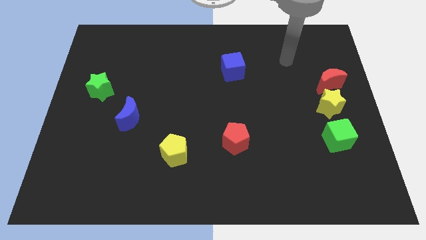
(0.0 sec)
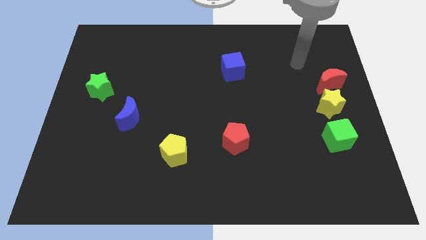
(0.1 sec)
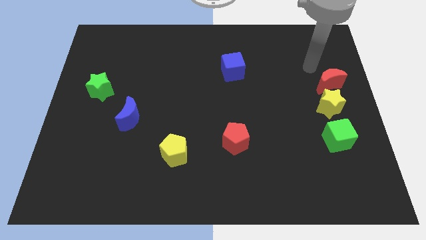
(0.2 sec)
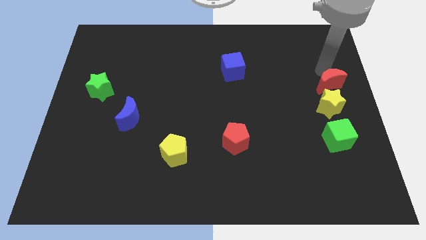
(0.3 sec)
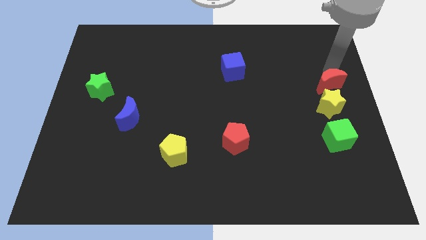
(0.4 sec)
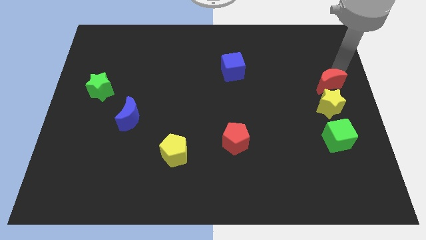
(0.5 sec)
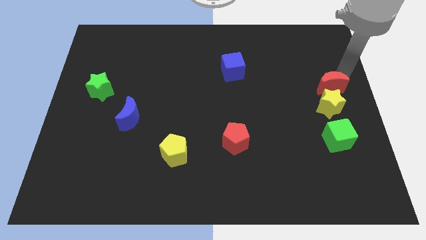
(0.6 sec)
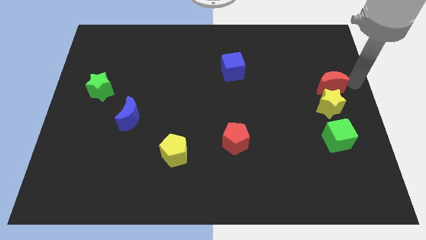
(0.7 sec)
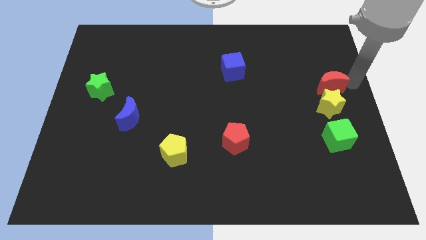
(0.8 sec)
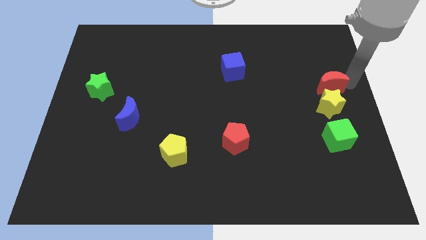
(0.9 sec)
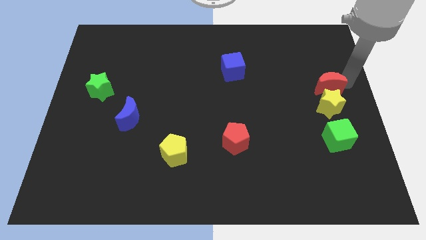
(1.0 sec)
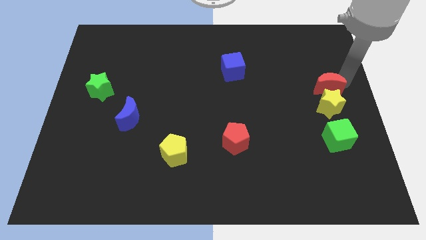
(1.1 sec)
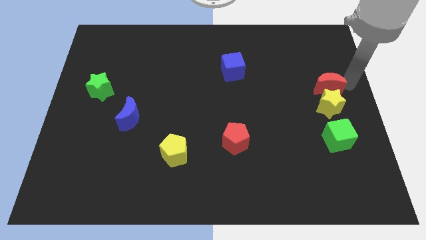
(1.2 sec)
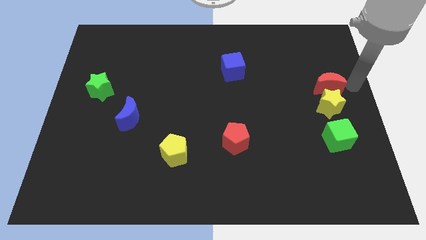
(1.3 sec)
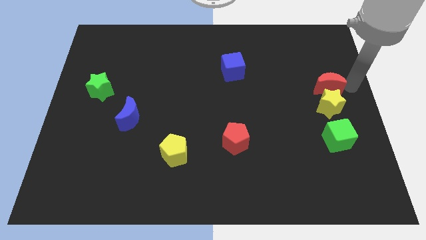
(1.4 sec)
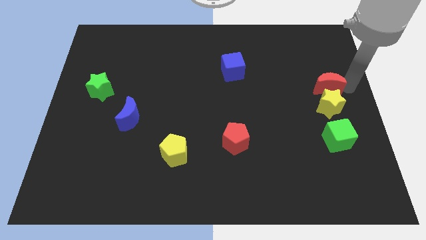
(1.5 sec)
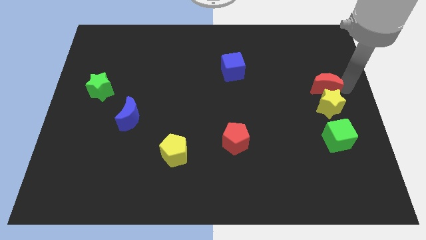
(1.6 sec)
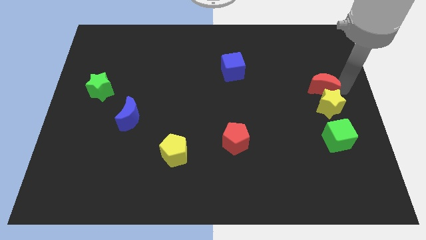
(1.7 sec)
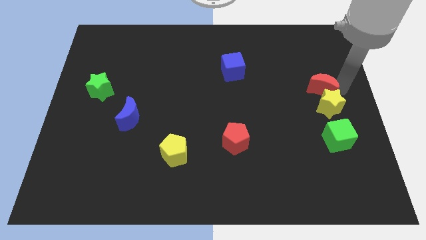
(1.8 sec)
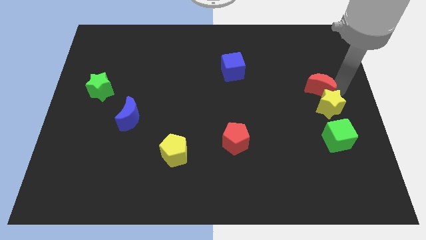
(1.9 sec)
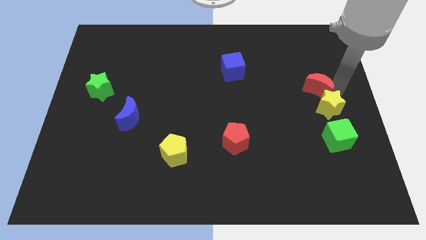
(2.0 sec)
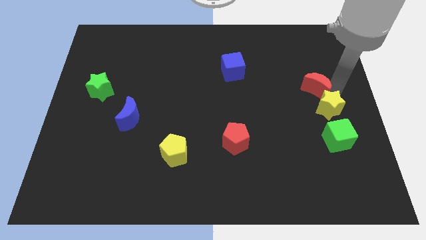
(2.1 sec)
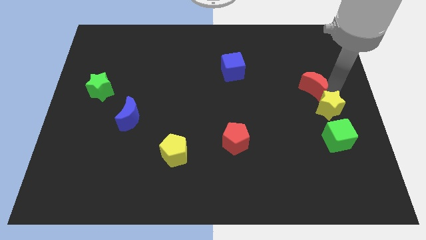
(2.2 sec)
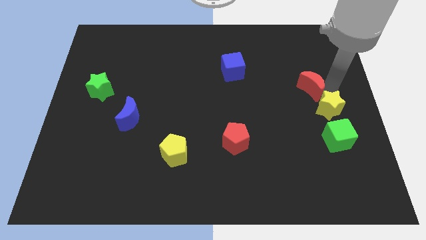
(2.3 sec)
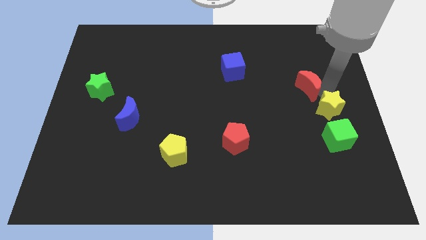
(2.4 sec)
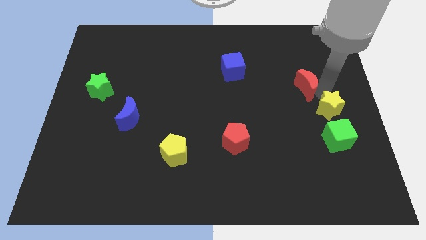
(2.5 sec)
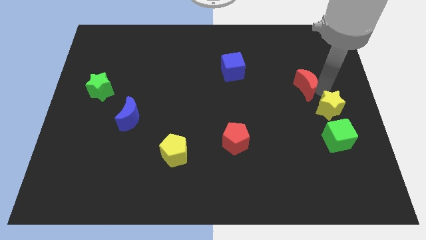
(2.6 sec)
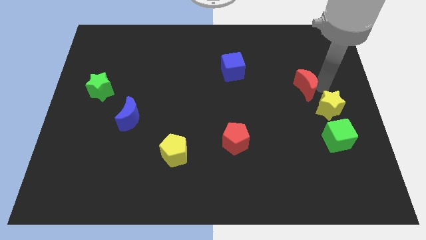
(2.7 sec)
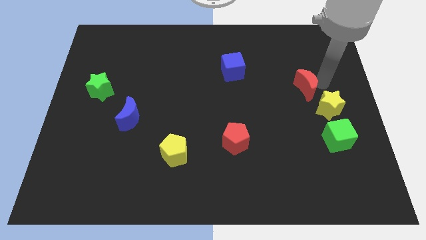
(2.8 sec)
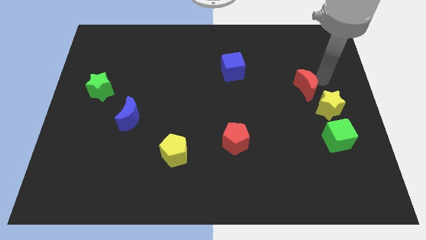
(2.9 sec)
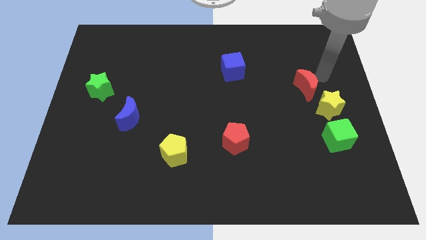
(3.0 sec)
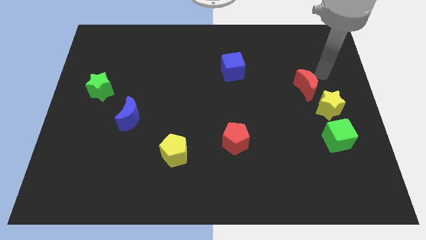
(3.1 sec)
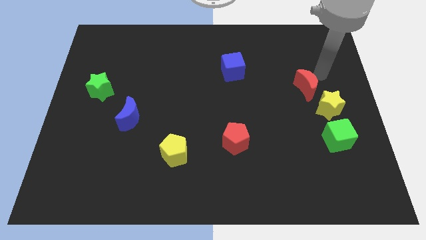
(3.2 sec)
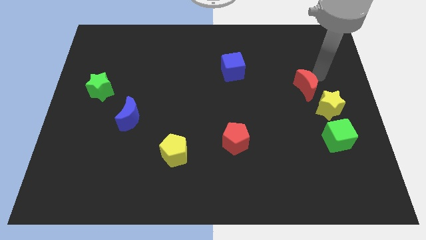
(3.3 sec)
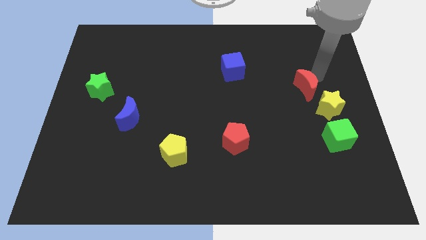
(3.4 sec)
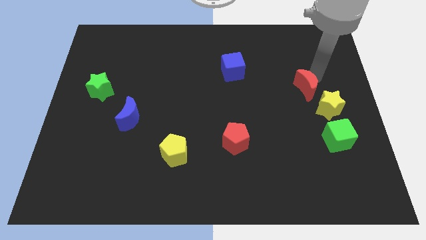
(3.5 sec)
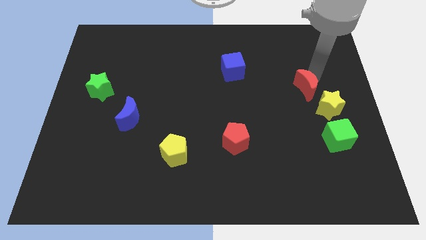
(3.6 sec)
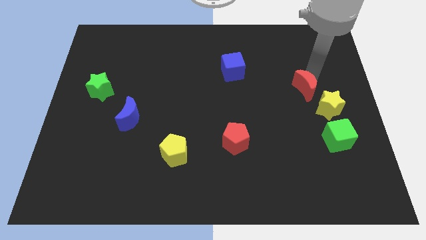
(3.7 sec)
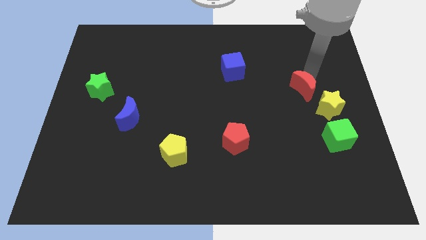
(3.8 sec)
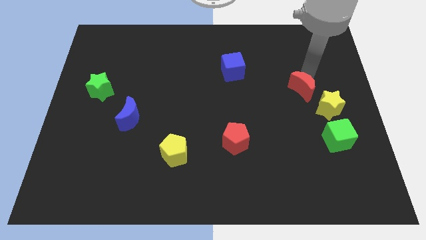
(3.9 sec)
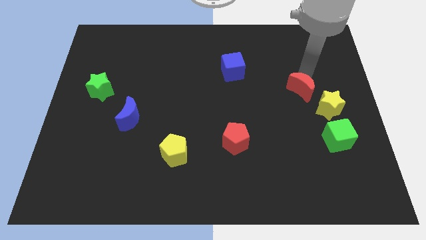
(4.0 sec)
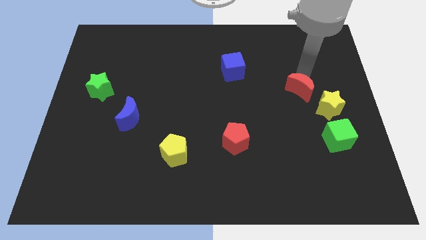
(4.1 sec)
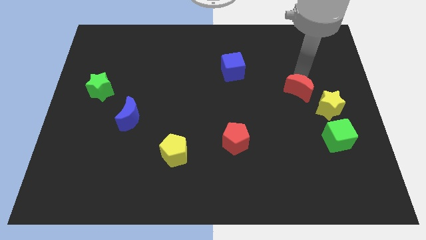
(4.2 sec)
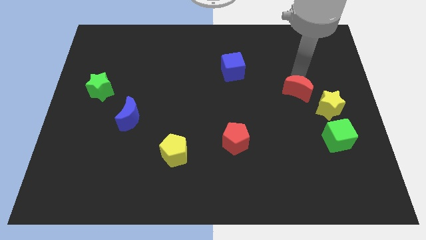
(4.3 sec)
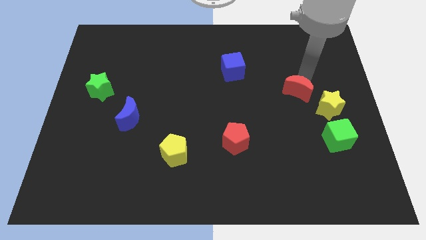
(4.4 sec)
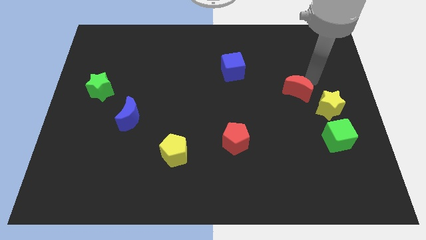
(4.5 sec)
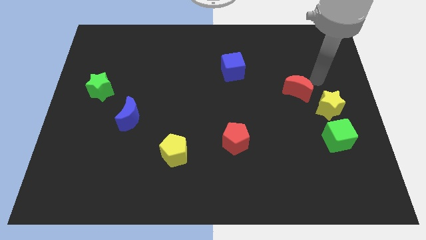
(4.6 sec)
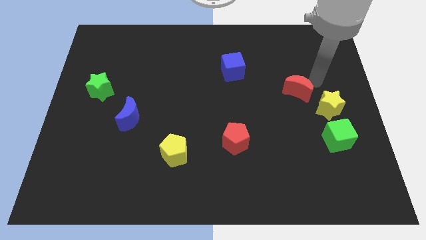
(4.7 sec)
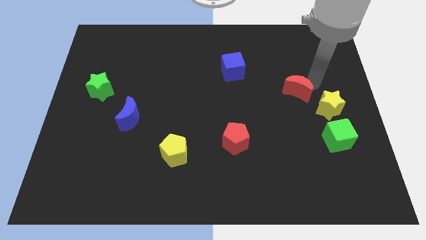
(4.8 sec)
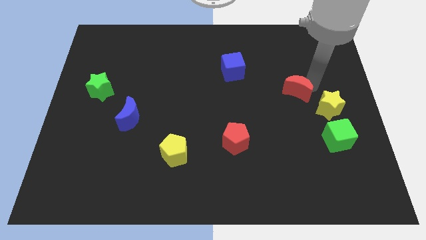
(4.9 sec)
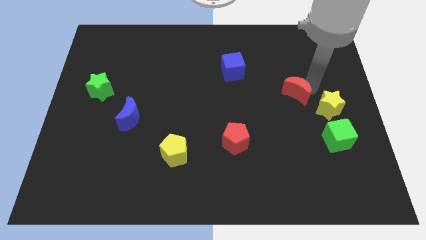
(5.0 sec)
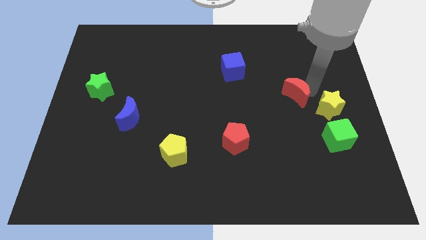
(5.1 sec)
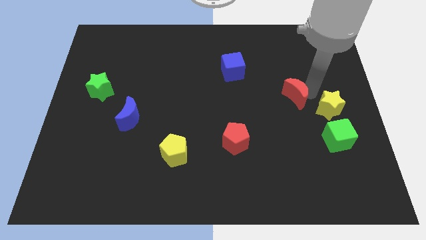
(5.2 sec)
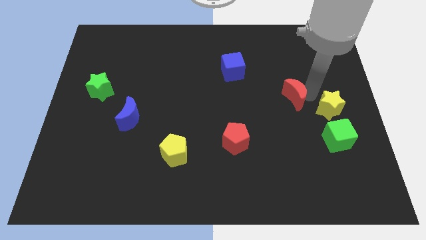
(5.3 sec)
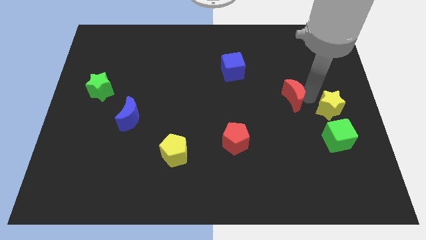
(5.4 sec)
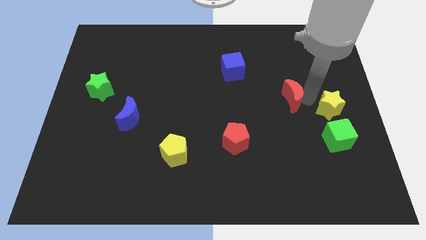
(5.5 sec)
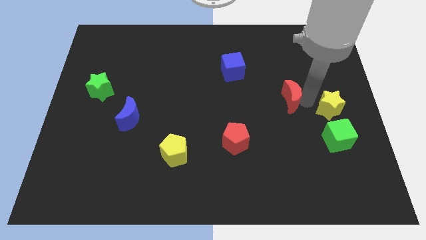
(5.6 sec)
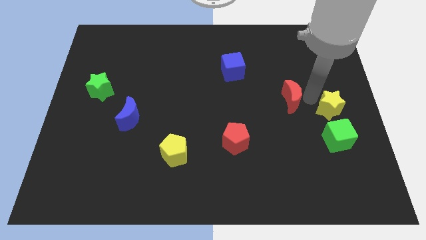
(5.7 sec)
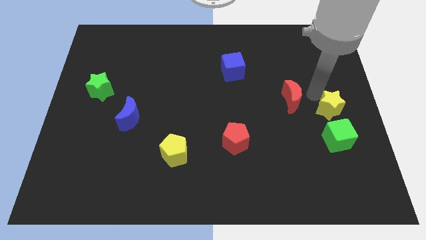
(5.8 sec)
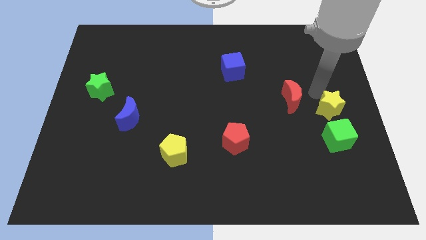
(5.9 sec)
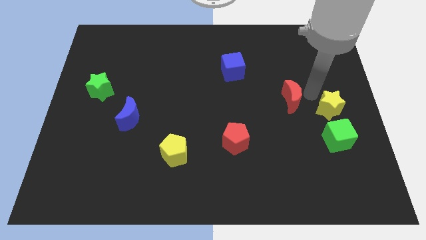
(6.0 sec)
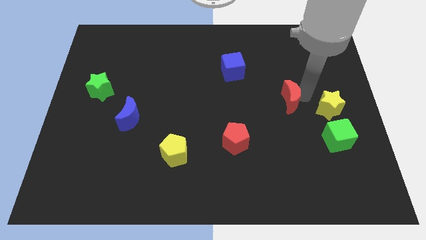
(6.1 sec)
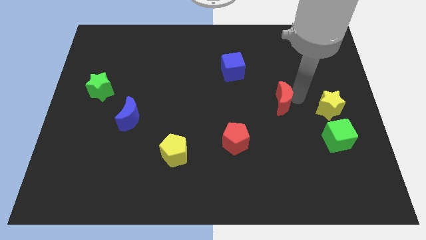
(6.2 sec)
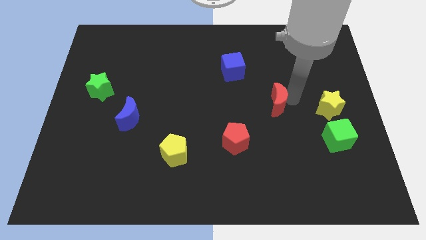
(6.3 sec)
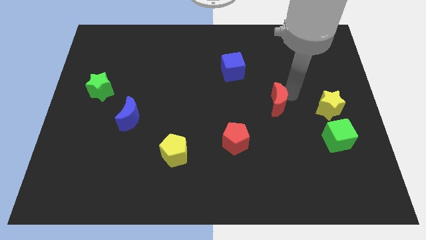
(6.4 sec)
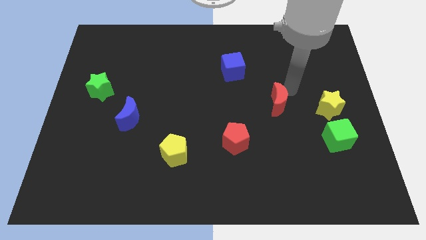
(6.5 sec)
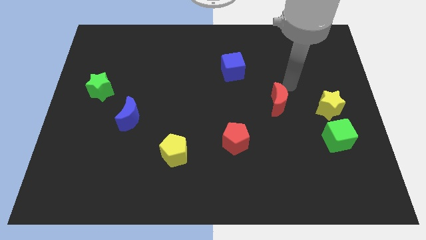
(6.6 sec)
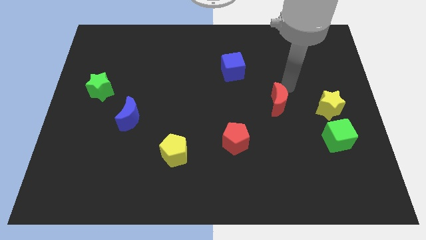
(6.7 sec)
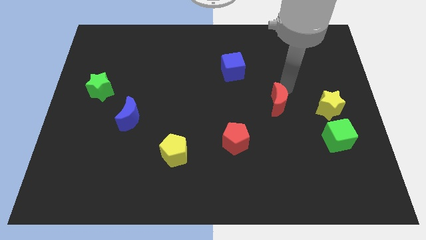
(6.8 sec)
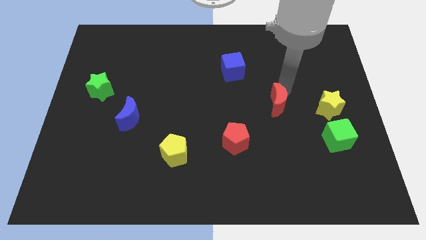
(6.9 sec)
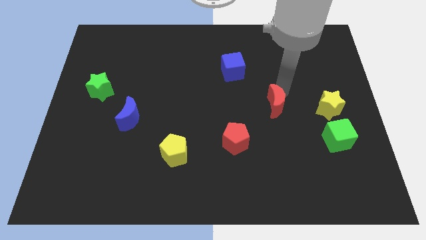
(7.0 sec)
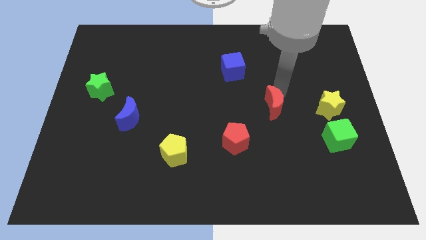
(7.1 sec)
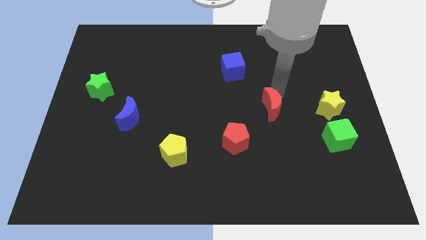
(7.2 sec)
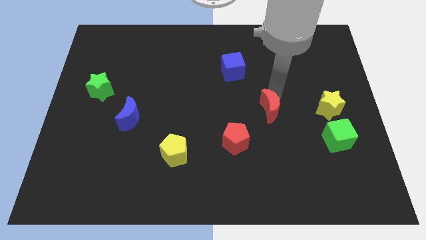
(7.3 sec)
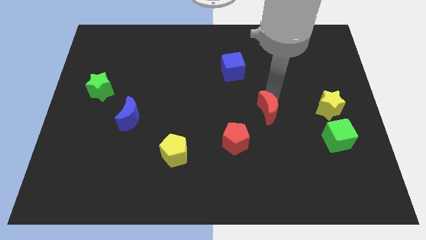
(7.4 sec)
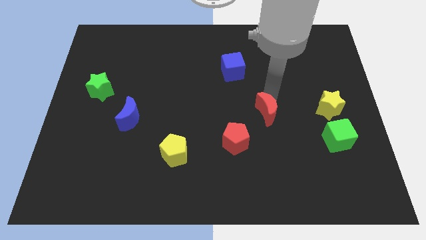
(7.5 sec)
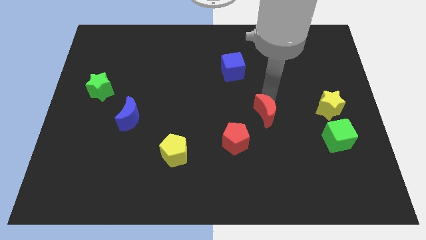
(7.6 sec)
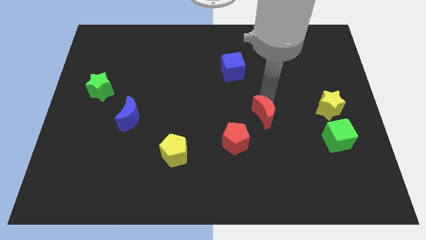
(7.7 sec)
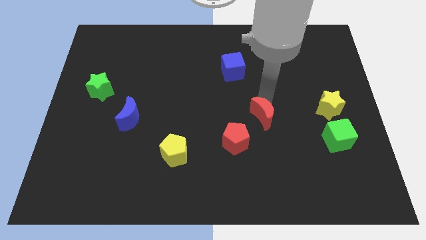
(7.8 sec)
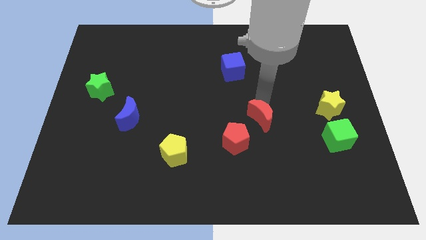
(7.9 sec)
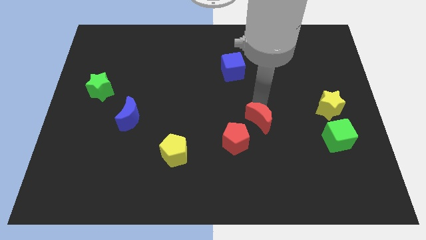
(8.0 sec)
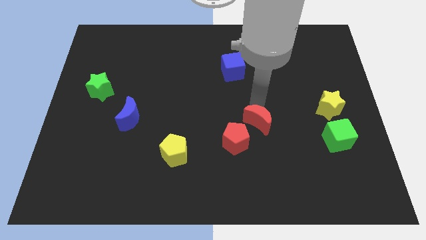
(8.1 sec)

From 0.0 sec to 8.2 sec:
slide the red moon diagonally downwards and left

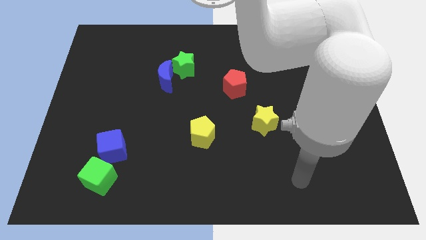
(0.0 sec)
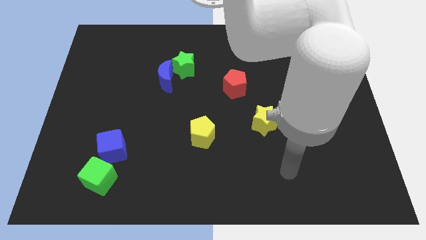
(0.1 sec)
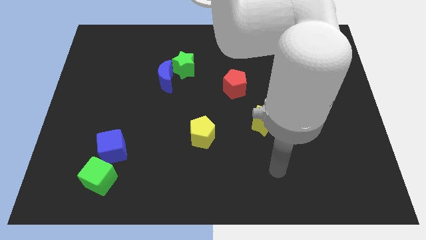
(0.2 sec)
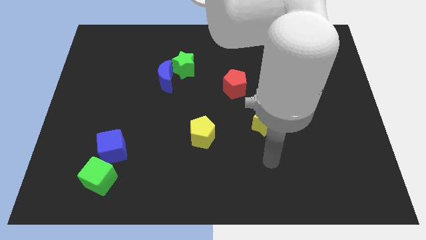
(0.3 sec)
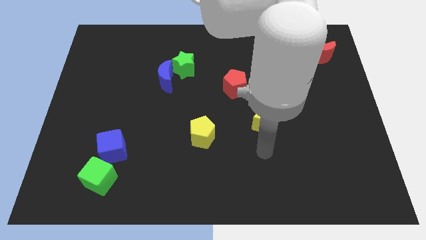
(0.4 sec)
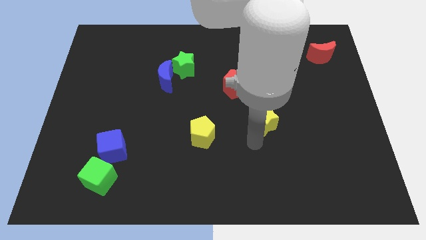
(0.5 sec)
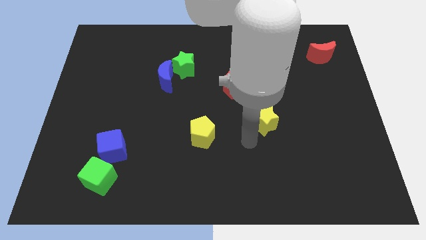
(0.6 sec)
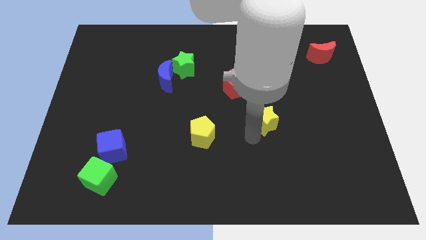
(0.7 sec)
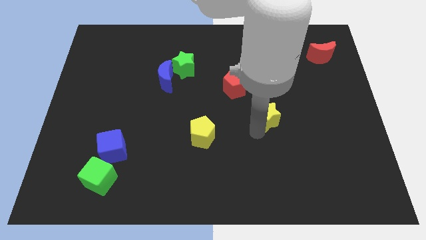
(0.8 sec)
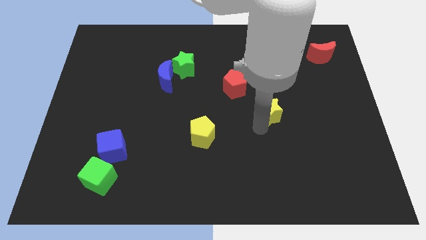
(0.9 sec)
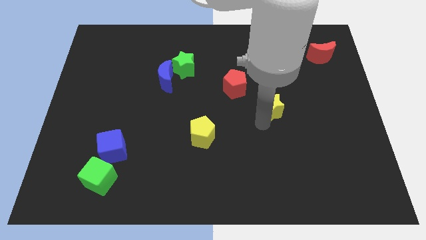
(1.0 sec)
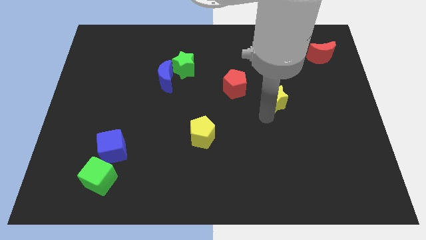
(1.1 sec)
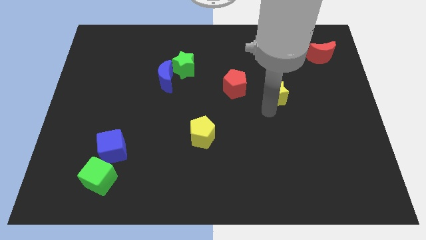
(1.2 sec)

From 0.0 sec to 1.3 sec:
push the yellow star upwards and right somewhat
